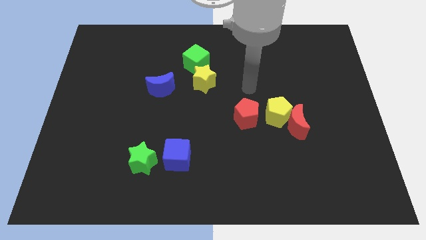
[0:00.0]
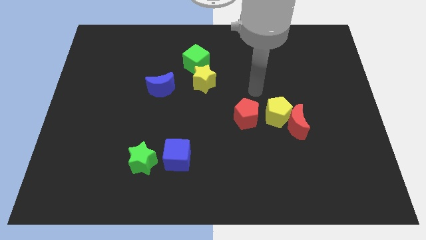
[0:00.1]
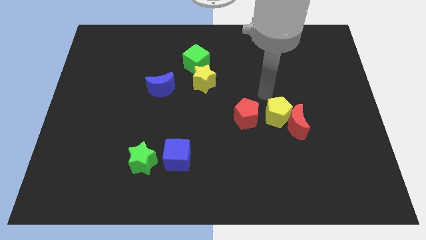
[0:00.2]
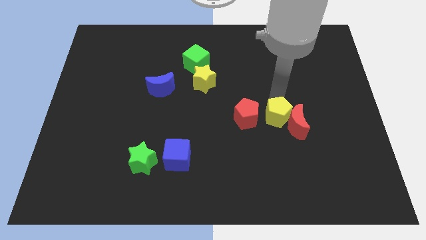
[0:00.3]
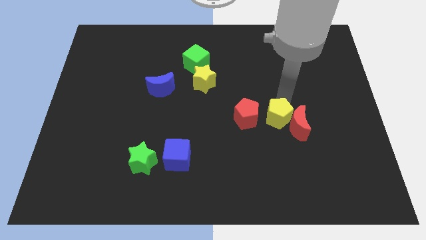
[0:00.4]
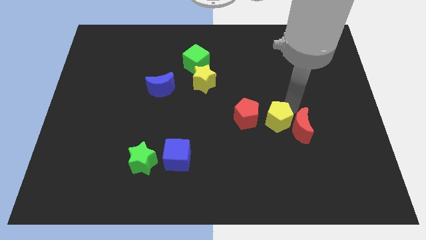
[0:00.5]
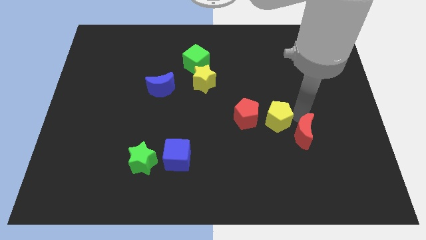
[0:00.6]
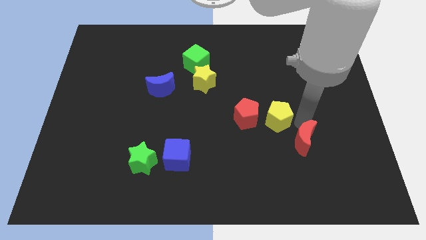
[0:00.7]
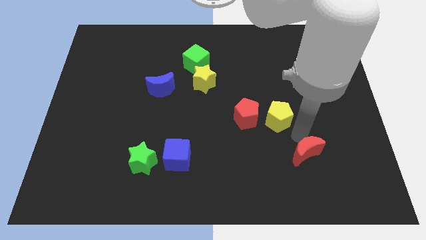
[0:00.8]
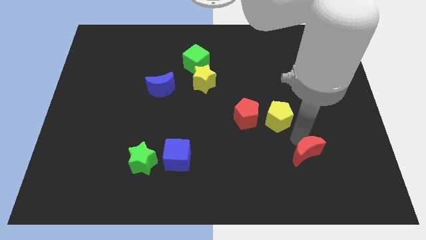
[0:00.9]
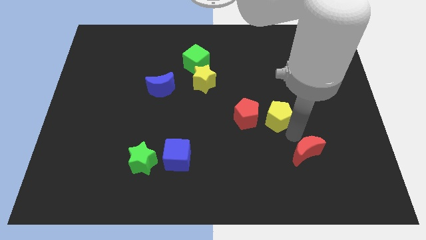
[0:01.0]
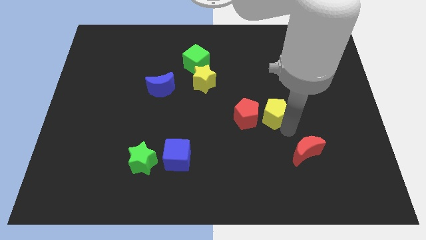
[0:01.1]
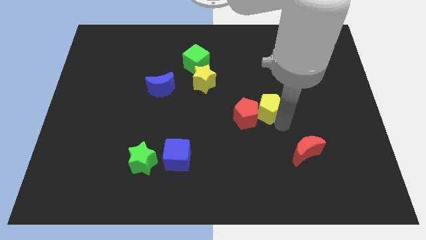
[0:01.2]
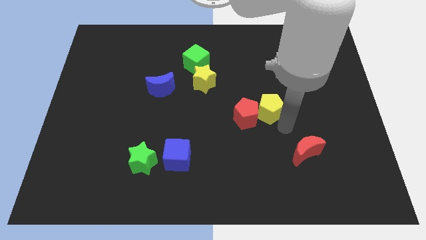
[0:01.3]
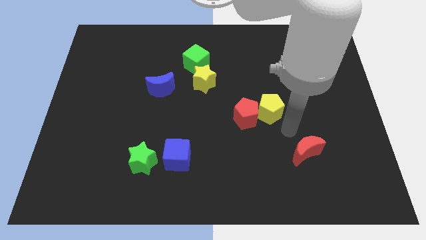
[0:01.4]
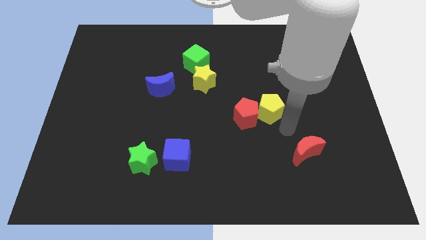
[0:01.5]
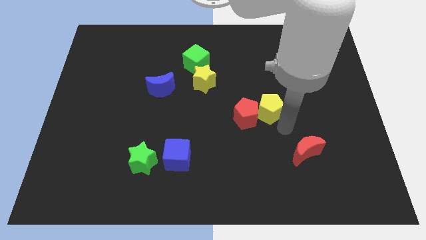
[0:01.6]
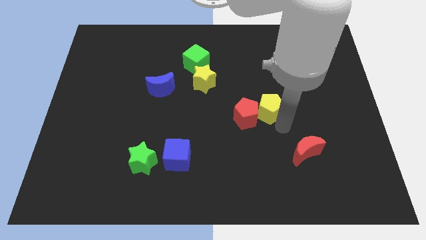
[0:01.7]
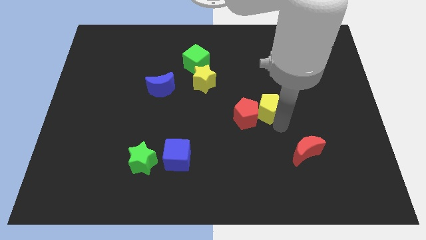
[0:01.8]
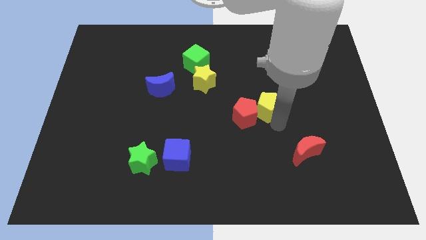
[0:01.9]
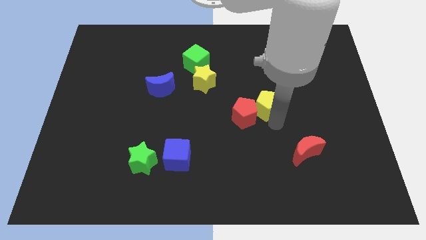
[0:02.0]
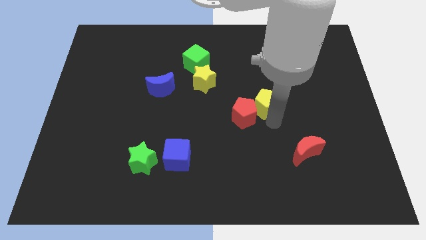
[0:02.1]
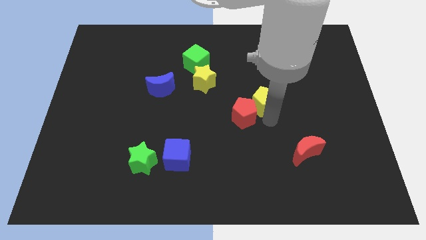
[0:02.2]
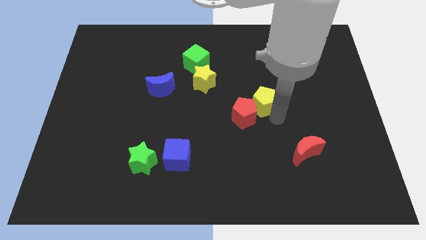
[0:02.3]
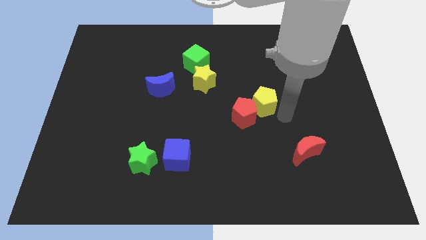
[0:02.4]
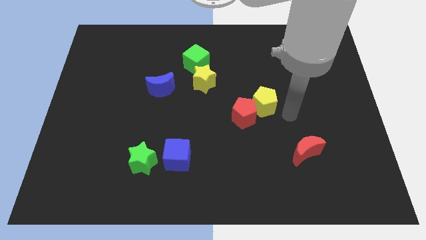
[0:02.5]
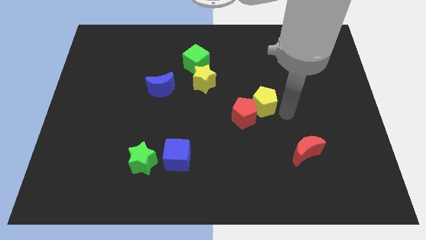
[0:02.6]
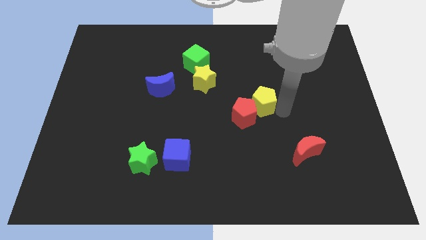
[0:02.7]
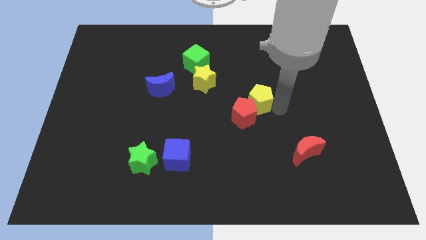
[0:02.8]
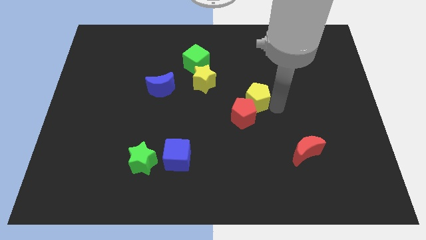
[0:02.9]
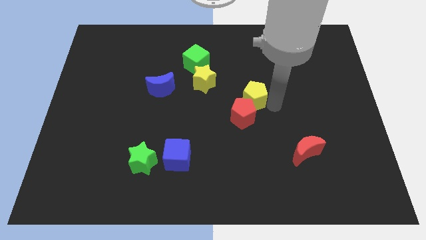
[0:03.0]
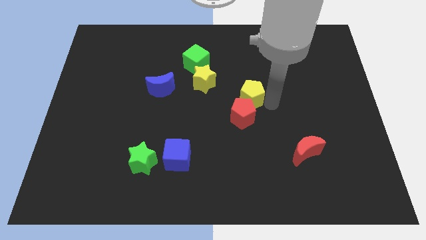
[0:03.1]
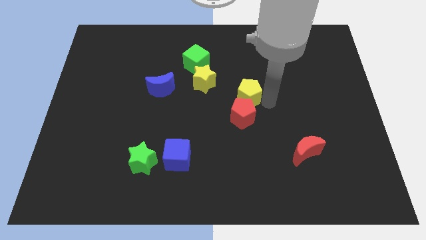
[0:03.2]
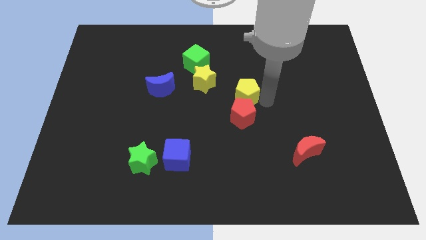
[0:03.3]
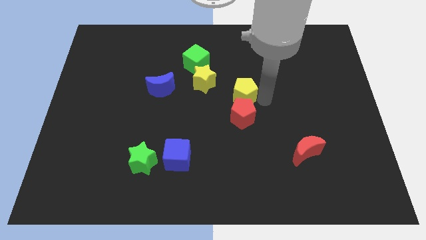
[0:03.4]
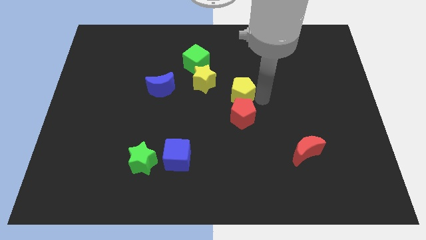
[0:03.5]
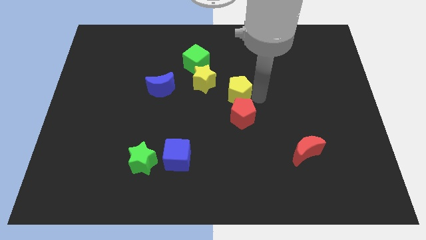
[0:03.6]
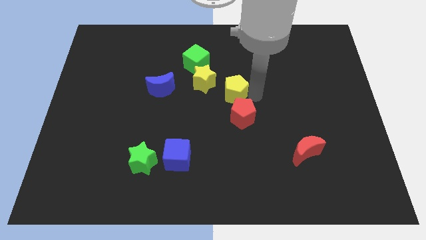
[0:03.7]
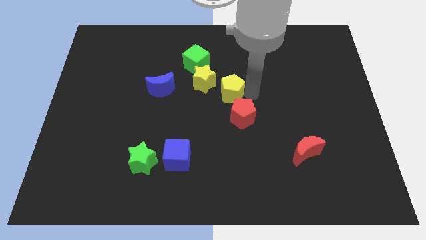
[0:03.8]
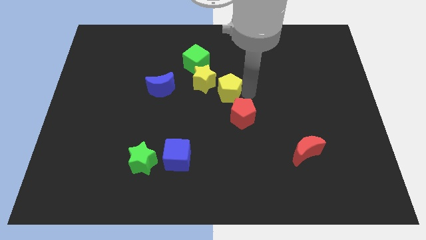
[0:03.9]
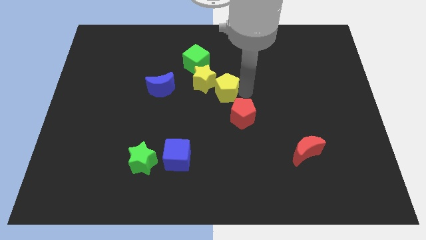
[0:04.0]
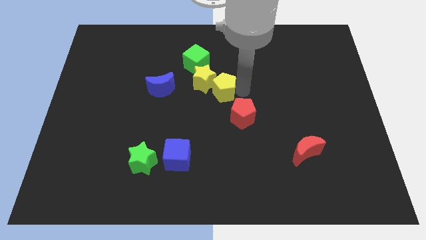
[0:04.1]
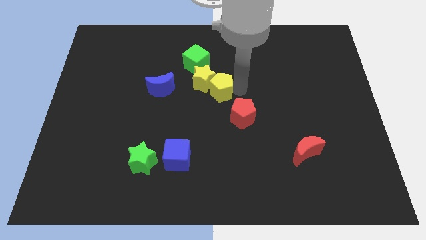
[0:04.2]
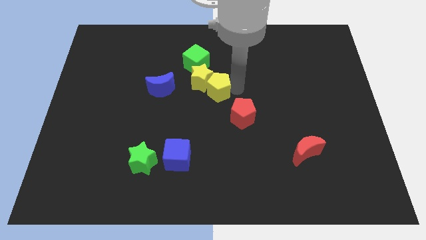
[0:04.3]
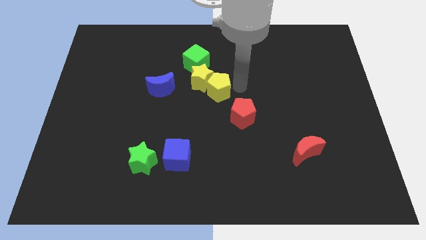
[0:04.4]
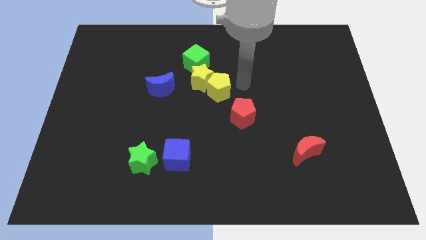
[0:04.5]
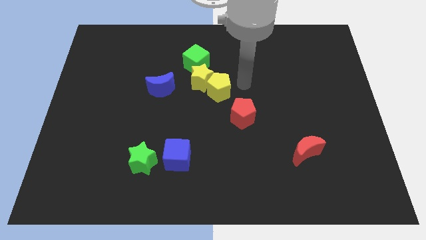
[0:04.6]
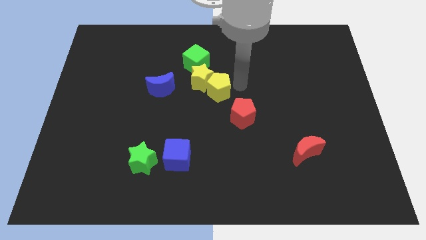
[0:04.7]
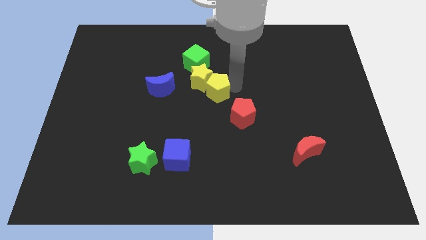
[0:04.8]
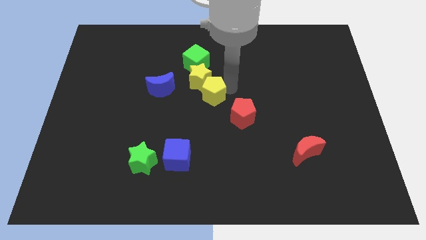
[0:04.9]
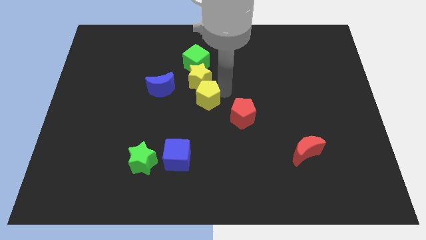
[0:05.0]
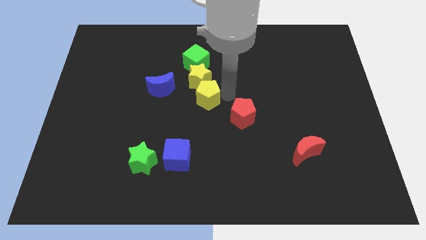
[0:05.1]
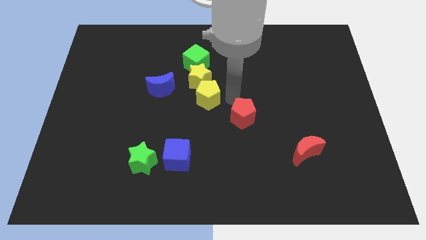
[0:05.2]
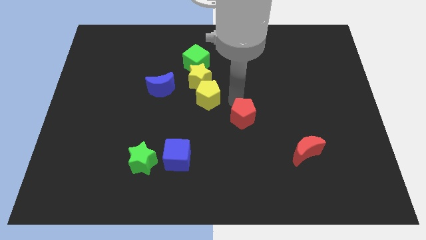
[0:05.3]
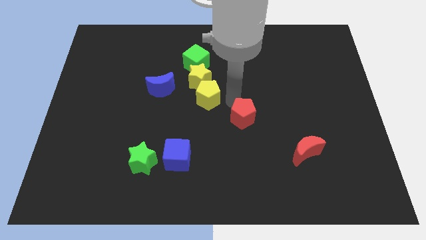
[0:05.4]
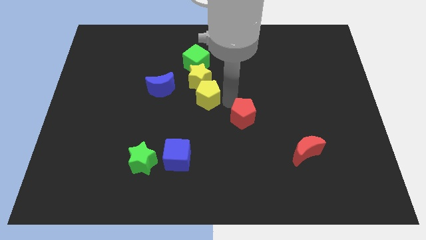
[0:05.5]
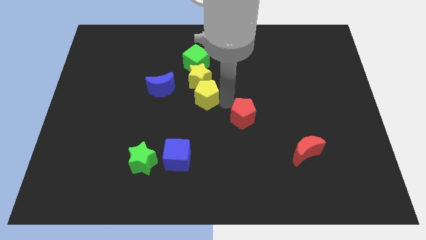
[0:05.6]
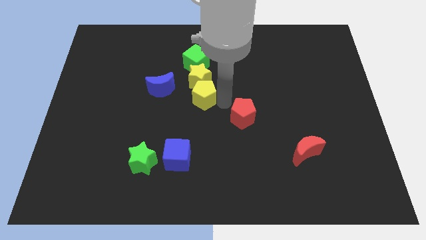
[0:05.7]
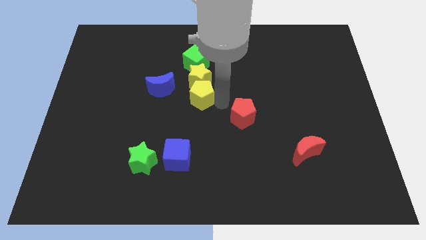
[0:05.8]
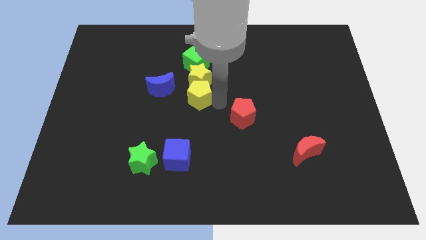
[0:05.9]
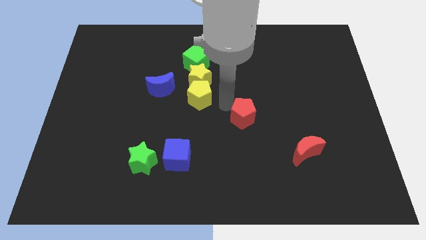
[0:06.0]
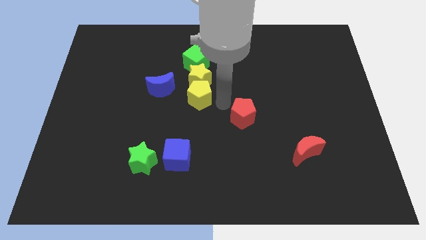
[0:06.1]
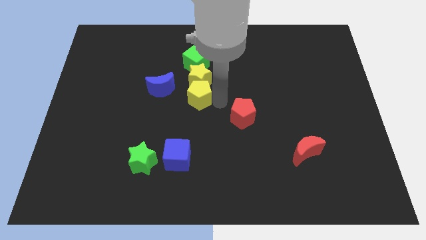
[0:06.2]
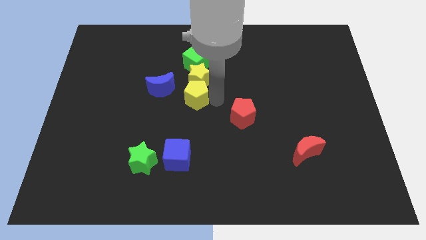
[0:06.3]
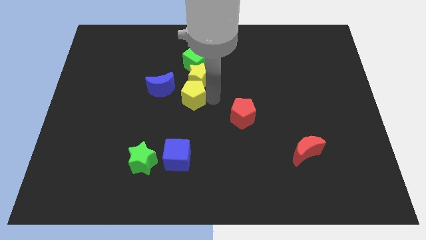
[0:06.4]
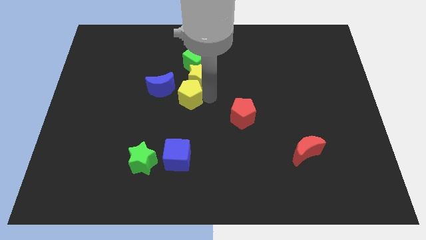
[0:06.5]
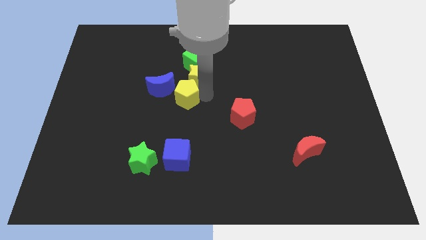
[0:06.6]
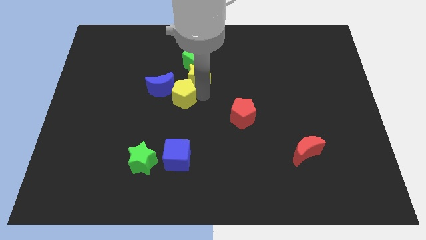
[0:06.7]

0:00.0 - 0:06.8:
put the yellow pentagon towards the blue moon

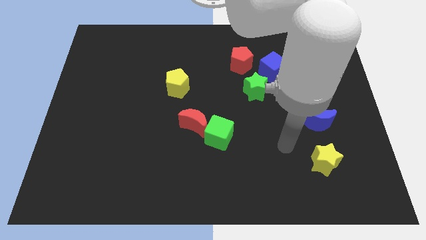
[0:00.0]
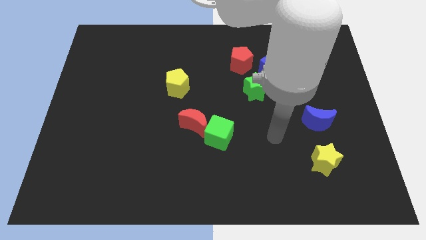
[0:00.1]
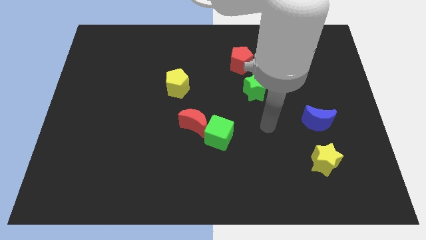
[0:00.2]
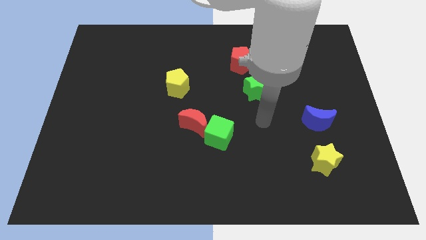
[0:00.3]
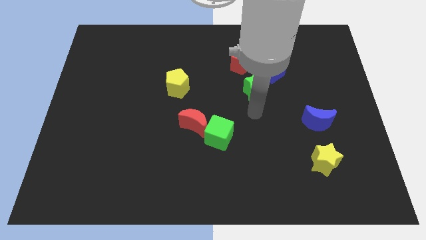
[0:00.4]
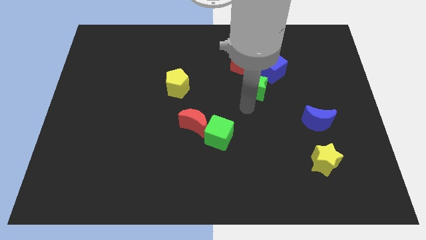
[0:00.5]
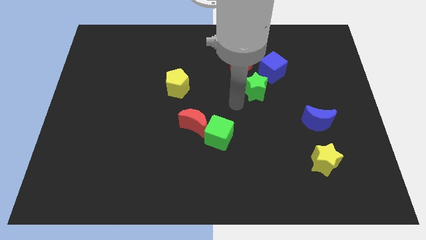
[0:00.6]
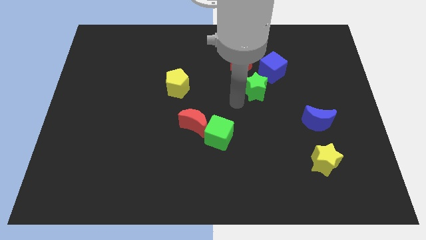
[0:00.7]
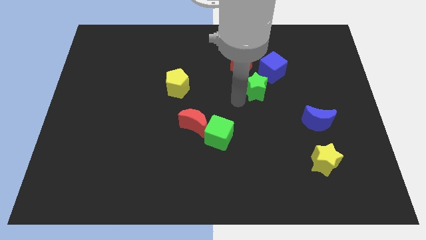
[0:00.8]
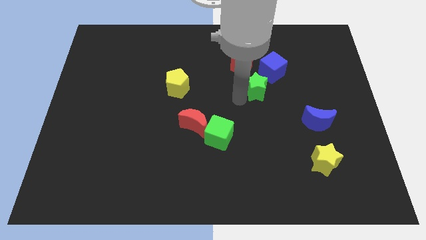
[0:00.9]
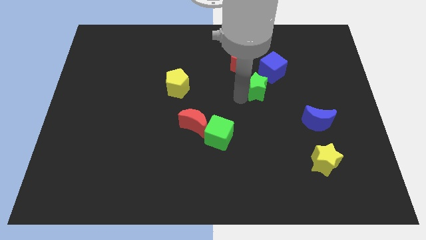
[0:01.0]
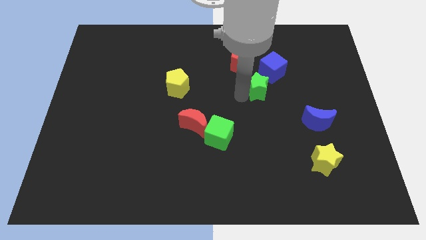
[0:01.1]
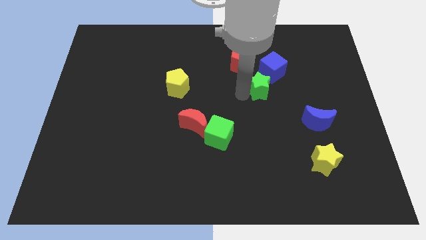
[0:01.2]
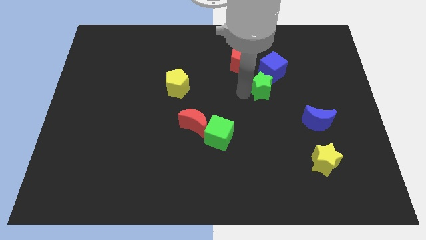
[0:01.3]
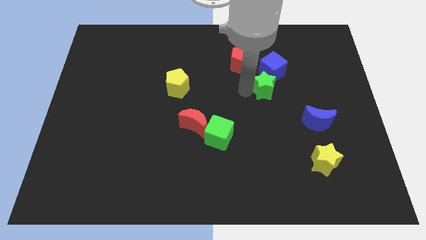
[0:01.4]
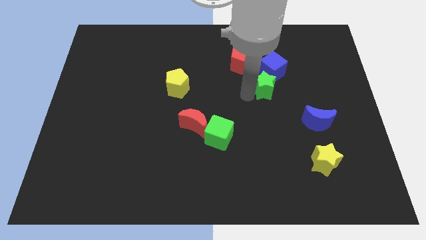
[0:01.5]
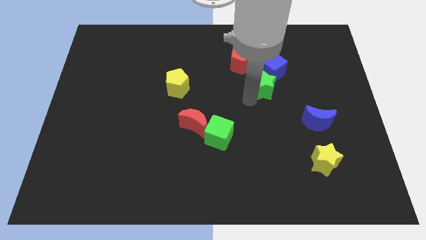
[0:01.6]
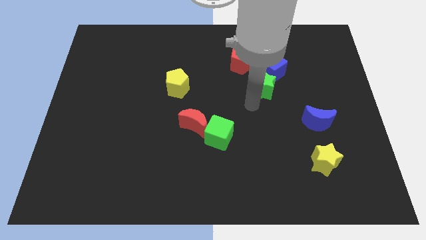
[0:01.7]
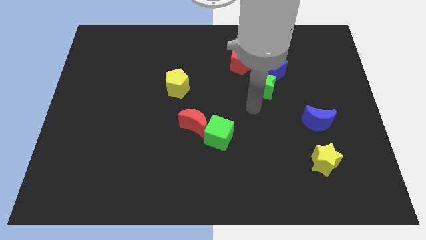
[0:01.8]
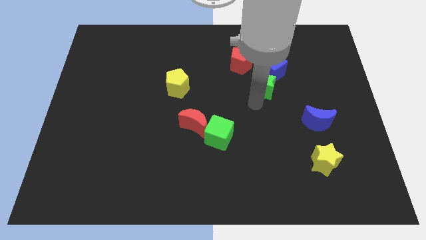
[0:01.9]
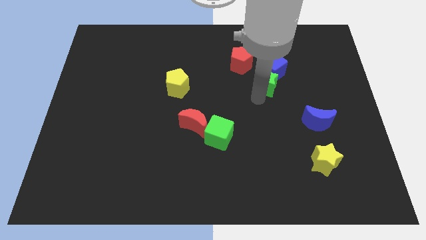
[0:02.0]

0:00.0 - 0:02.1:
put the green star to the blue cube
